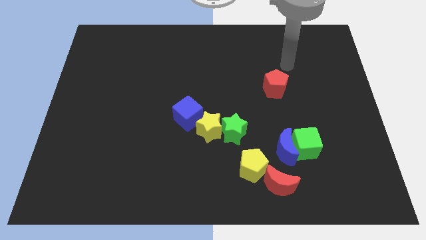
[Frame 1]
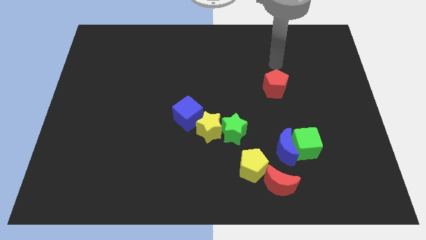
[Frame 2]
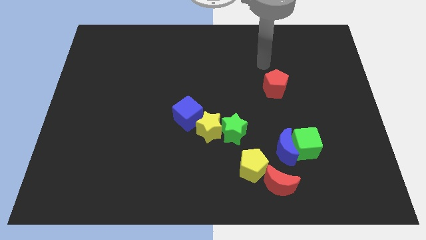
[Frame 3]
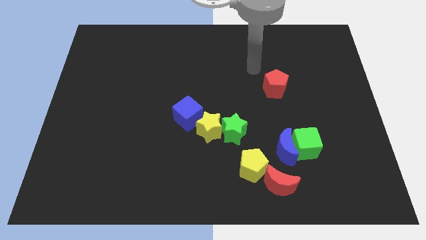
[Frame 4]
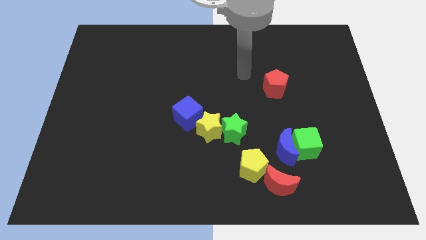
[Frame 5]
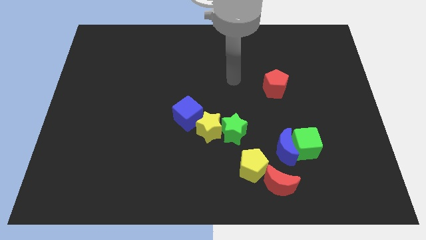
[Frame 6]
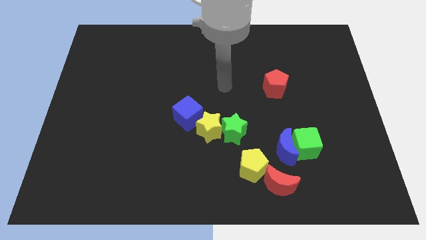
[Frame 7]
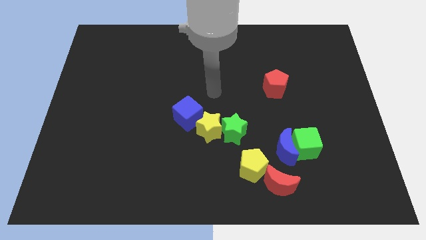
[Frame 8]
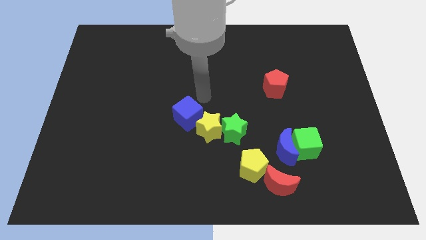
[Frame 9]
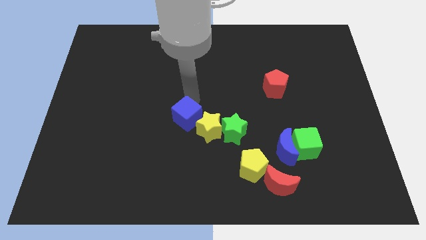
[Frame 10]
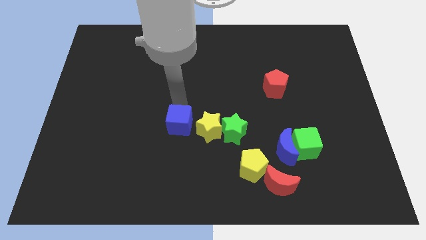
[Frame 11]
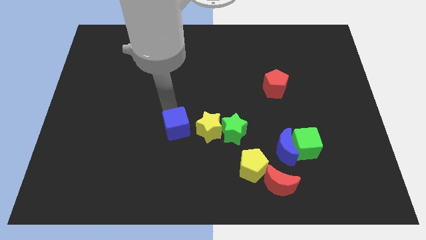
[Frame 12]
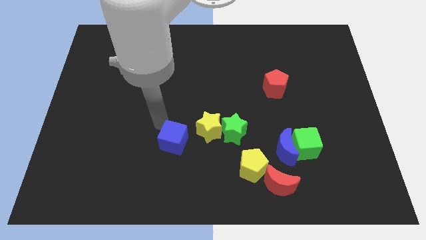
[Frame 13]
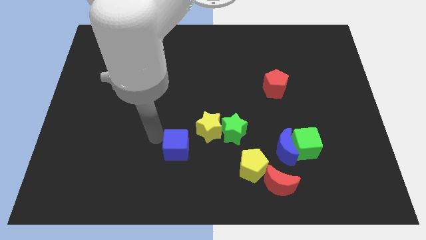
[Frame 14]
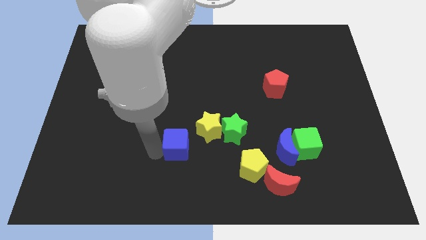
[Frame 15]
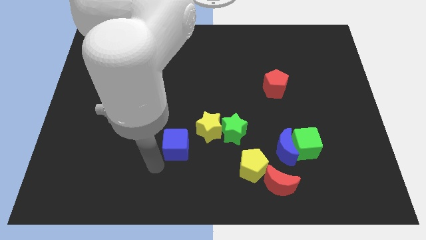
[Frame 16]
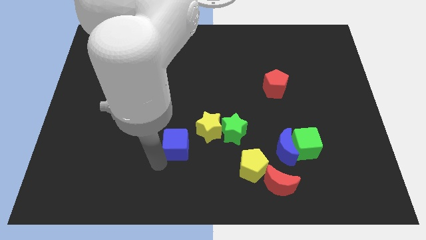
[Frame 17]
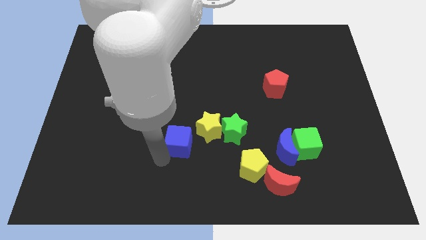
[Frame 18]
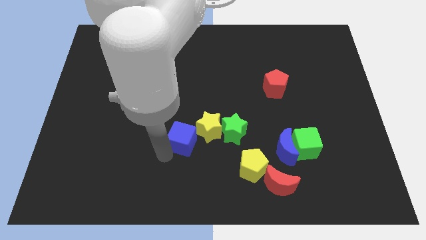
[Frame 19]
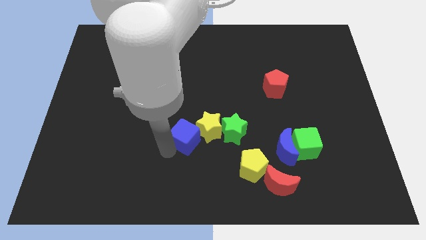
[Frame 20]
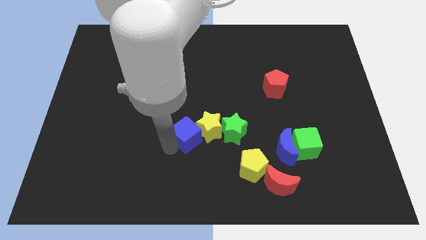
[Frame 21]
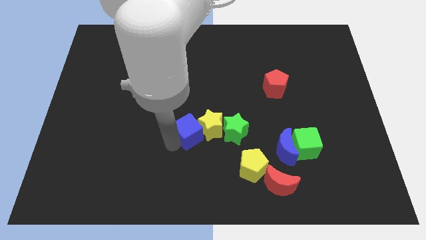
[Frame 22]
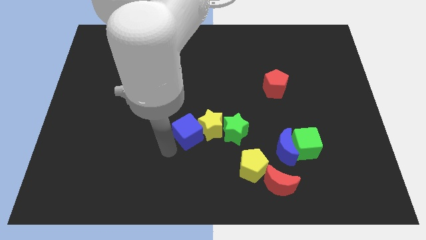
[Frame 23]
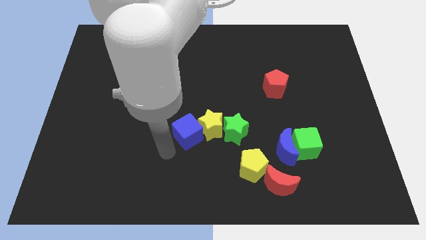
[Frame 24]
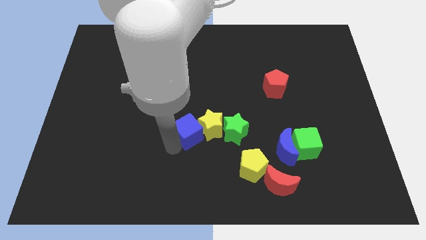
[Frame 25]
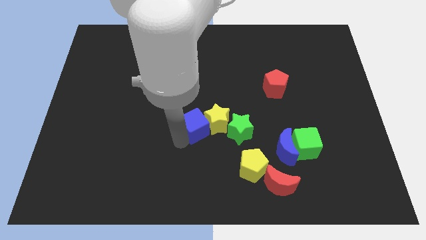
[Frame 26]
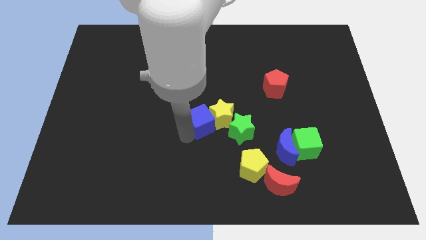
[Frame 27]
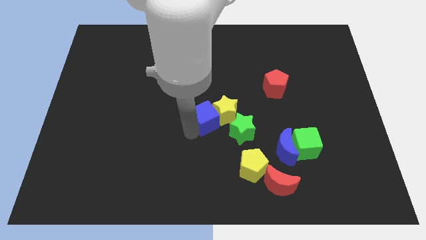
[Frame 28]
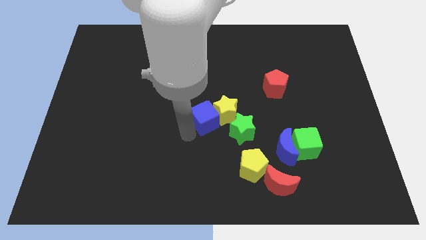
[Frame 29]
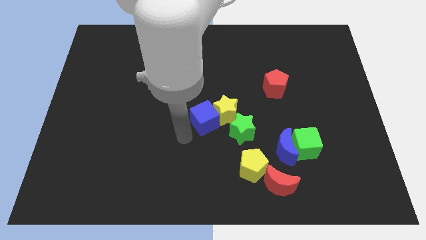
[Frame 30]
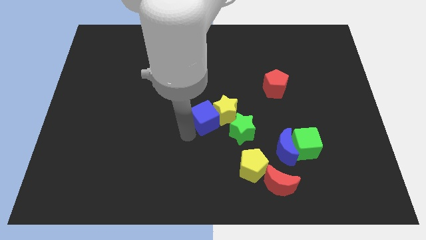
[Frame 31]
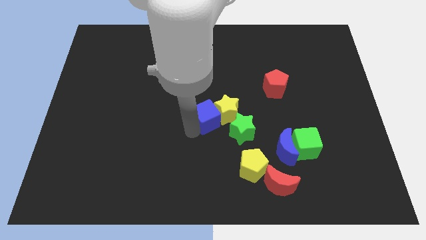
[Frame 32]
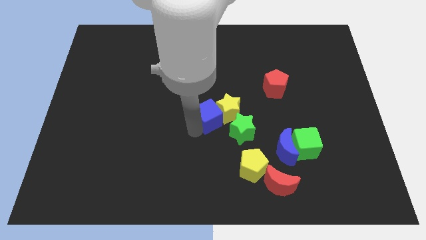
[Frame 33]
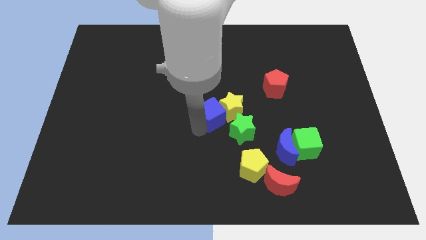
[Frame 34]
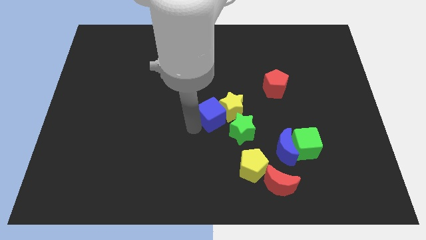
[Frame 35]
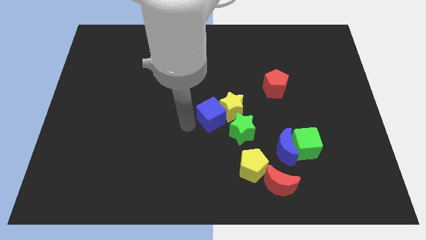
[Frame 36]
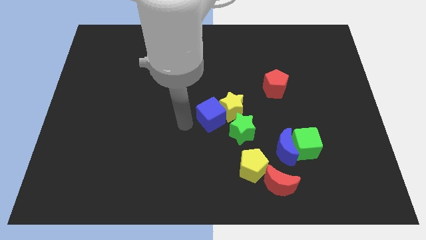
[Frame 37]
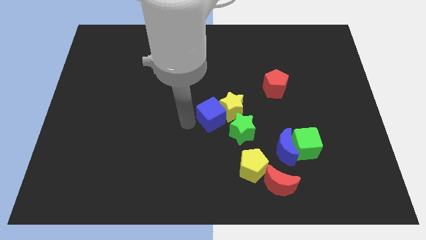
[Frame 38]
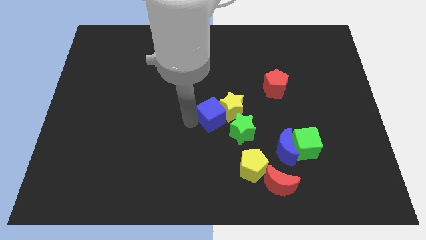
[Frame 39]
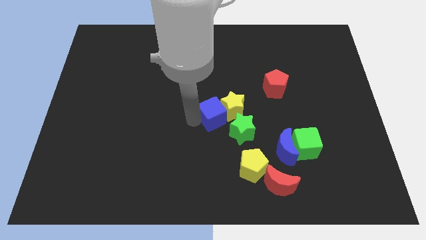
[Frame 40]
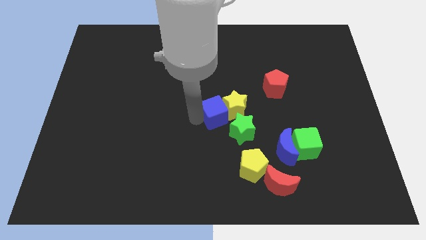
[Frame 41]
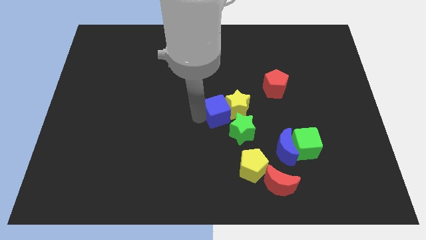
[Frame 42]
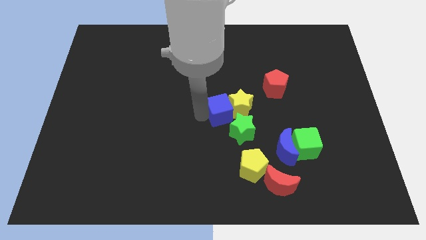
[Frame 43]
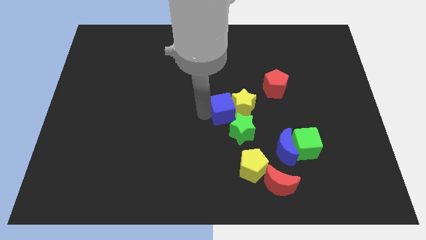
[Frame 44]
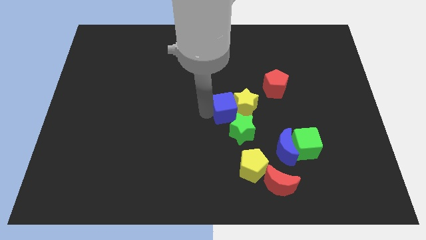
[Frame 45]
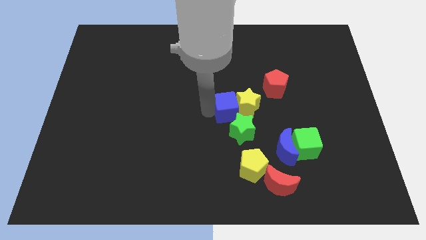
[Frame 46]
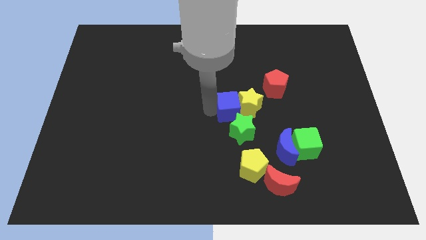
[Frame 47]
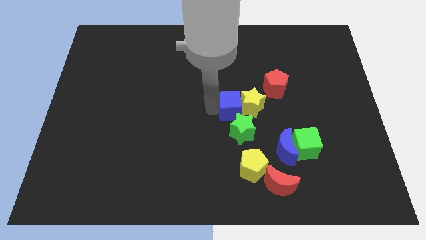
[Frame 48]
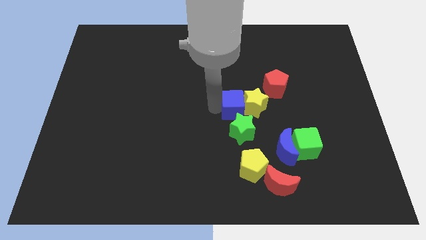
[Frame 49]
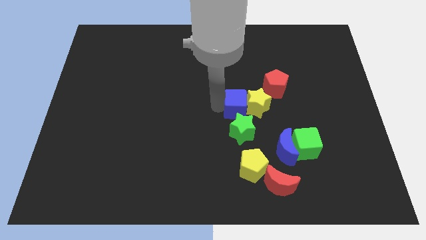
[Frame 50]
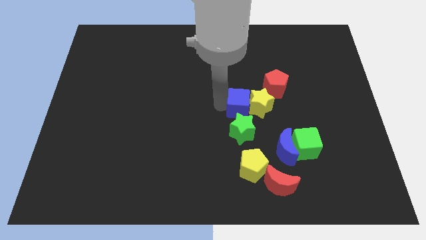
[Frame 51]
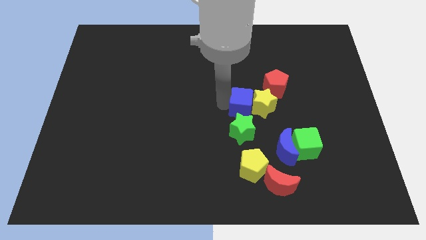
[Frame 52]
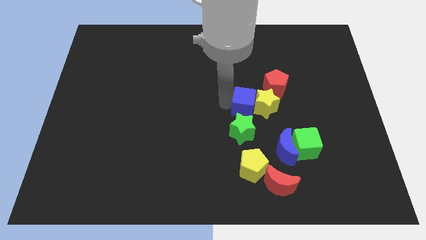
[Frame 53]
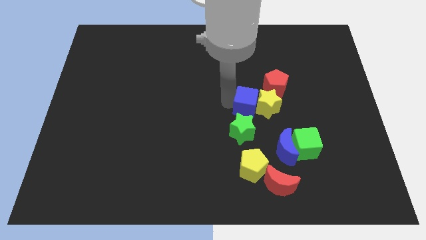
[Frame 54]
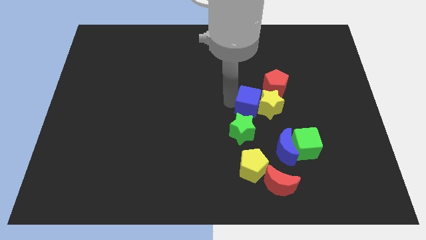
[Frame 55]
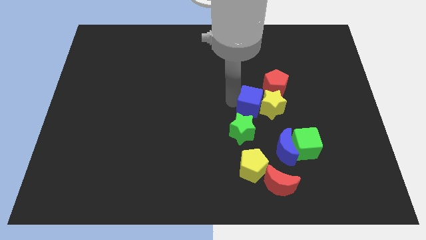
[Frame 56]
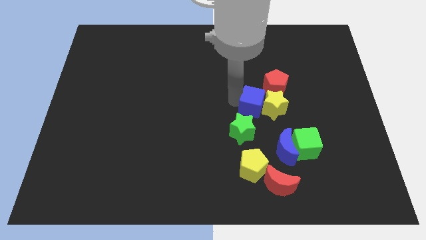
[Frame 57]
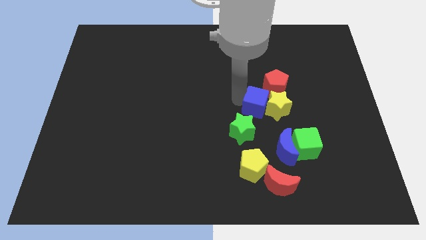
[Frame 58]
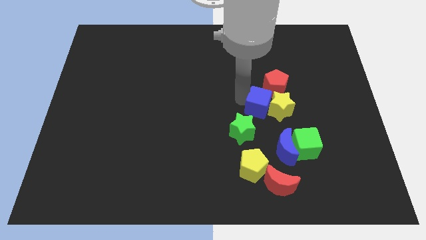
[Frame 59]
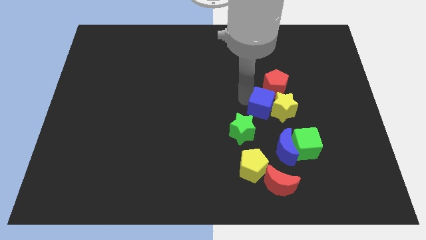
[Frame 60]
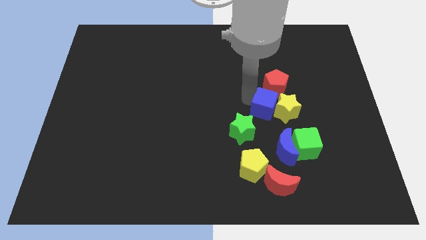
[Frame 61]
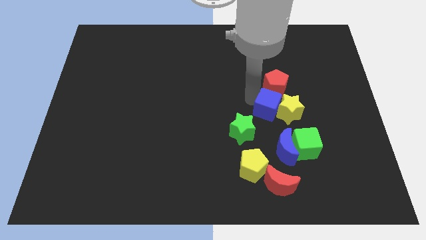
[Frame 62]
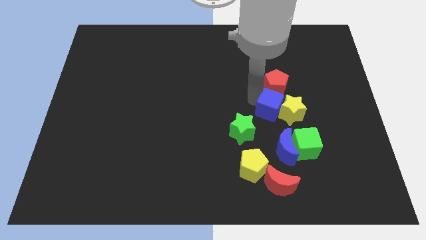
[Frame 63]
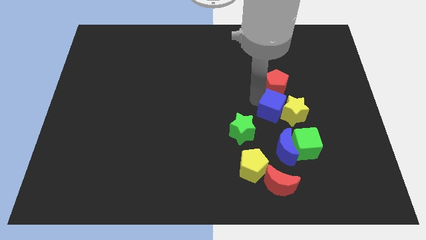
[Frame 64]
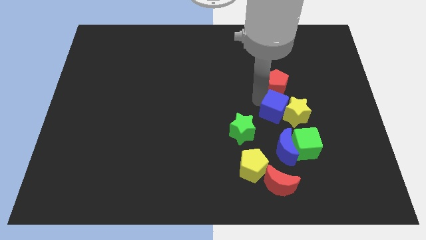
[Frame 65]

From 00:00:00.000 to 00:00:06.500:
move the blue cube right

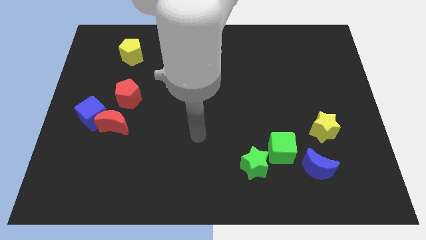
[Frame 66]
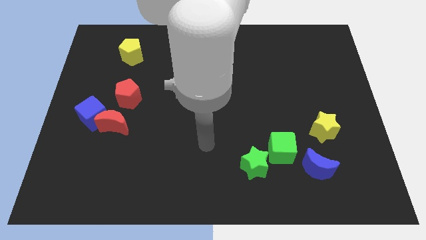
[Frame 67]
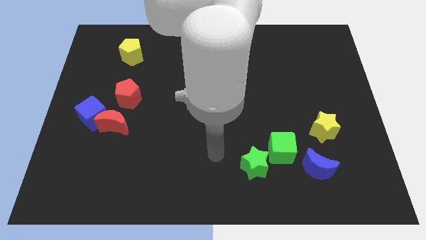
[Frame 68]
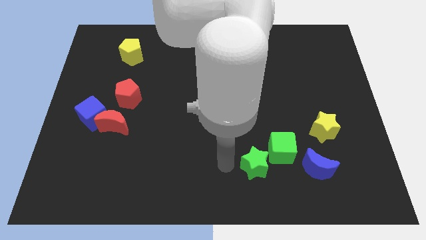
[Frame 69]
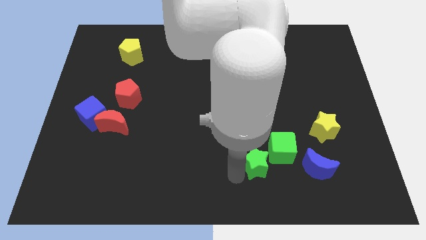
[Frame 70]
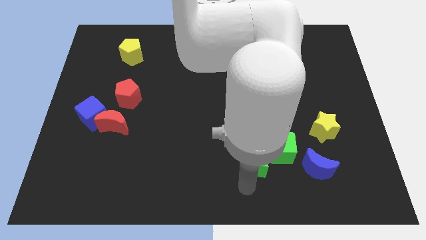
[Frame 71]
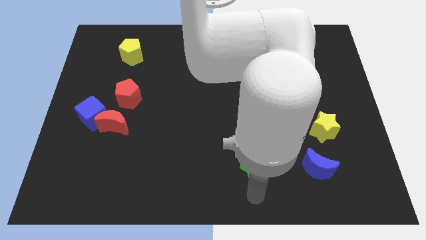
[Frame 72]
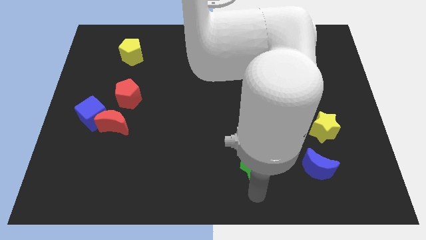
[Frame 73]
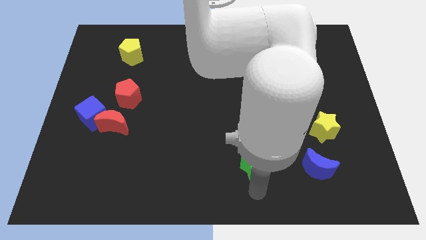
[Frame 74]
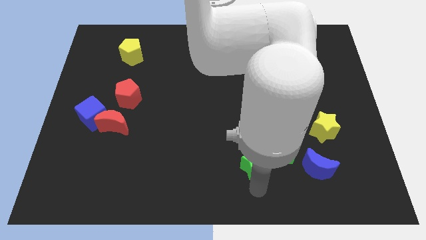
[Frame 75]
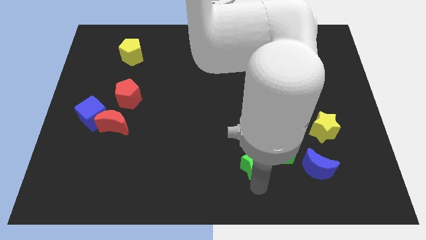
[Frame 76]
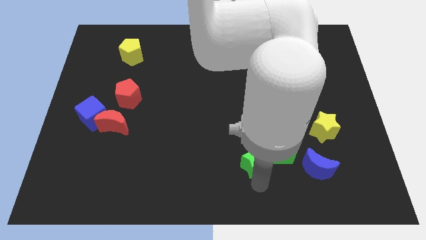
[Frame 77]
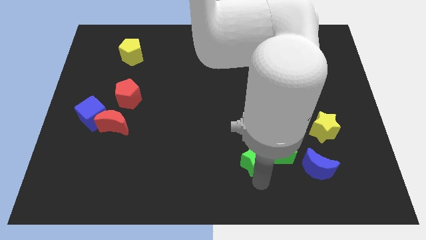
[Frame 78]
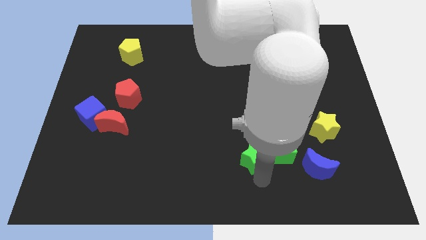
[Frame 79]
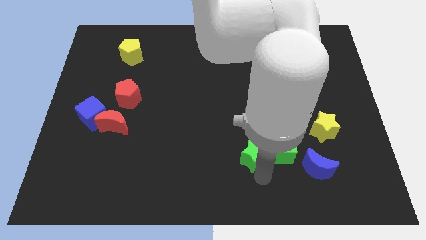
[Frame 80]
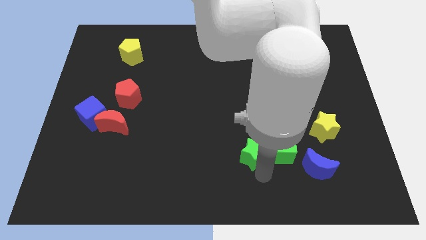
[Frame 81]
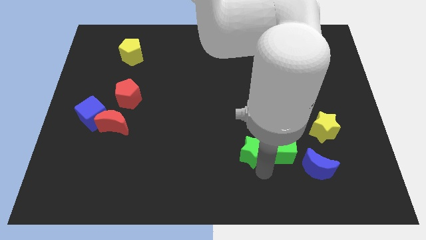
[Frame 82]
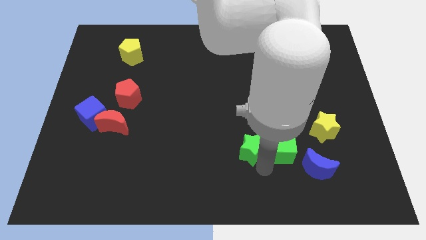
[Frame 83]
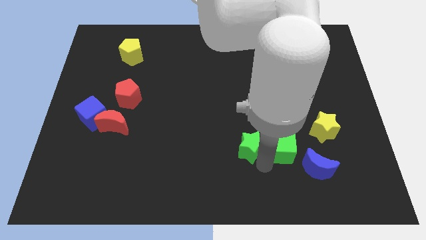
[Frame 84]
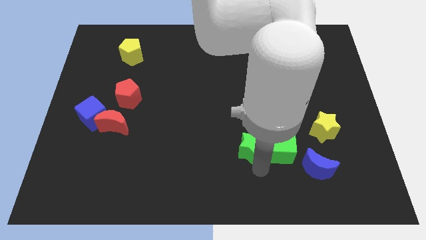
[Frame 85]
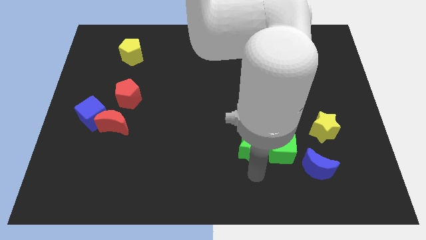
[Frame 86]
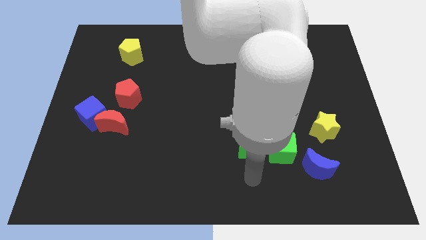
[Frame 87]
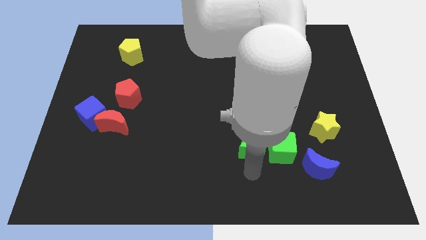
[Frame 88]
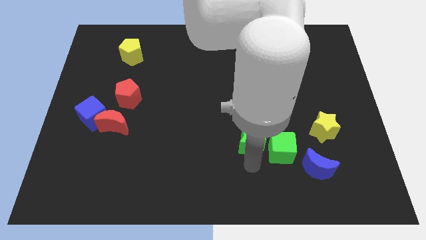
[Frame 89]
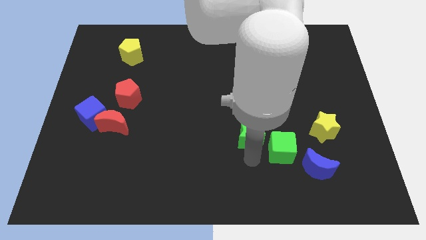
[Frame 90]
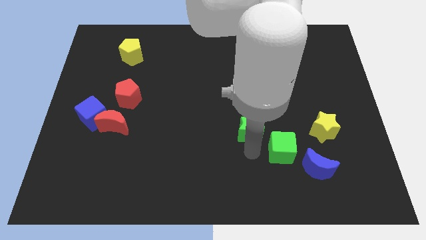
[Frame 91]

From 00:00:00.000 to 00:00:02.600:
push the green star slightly up
